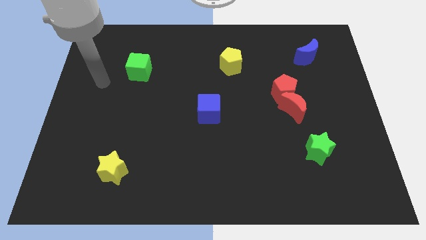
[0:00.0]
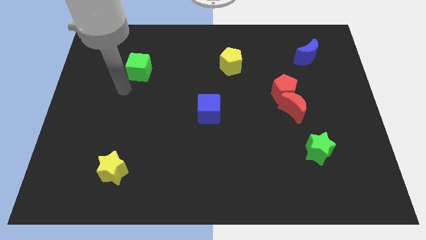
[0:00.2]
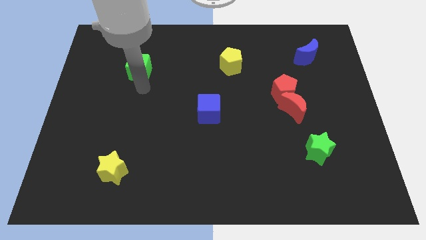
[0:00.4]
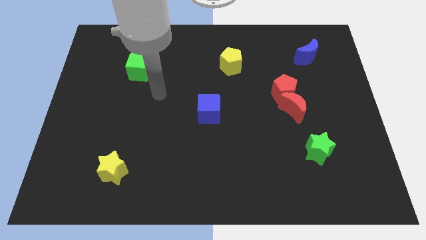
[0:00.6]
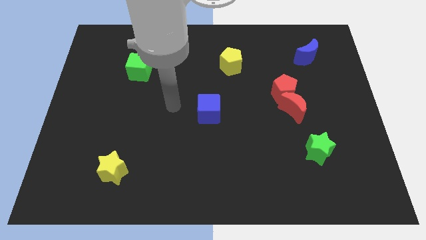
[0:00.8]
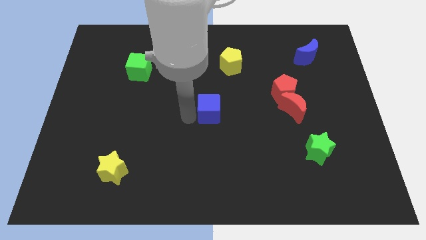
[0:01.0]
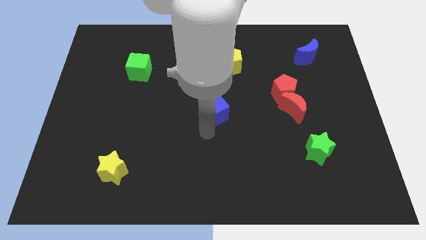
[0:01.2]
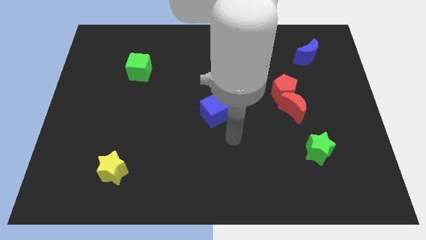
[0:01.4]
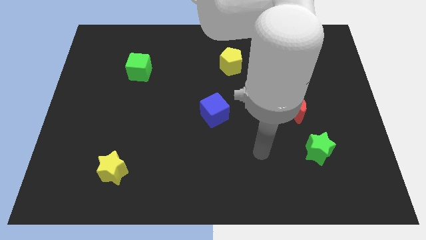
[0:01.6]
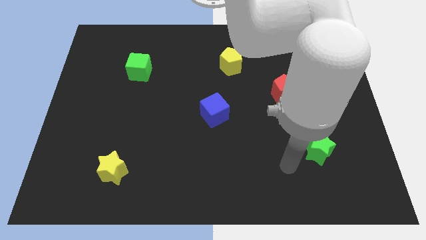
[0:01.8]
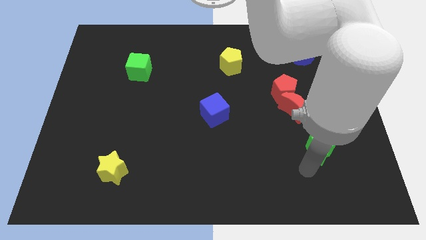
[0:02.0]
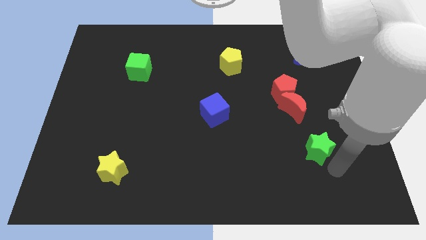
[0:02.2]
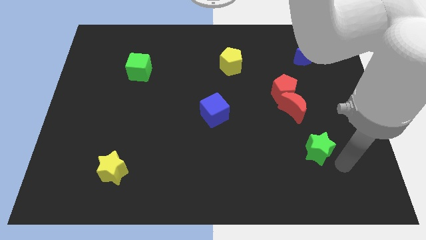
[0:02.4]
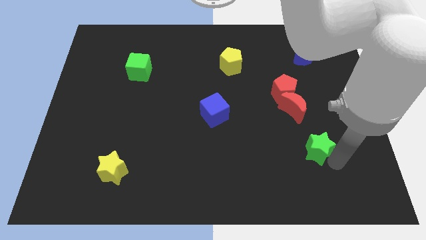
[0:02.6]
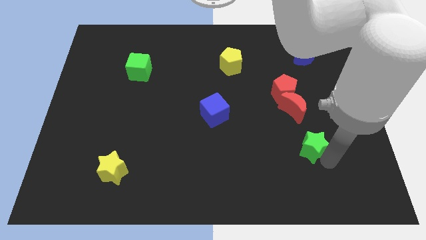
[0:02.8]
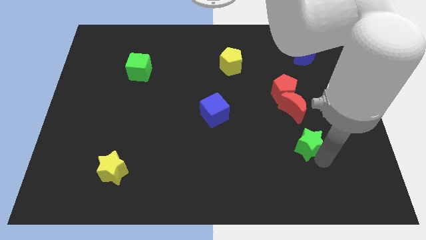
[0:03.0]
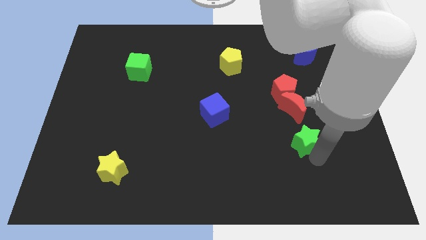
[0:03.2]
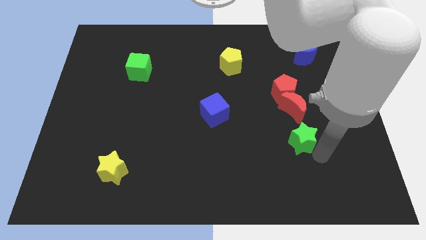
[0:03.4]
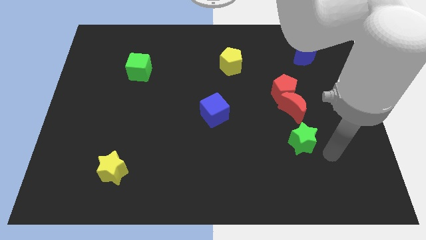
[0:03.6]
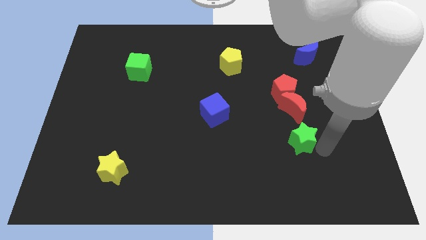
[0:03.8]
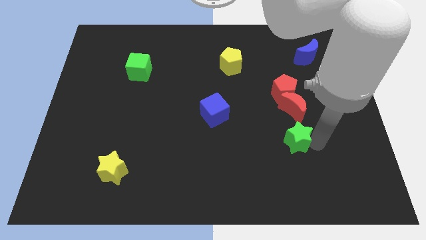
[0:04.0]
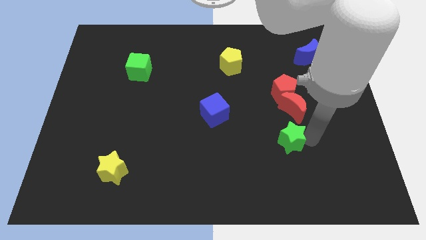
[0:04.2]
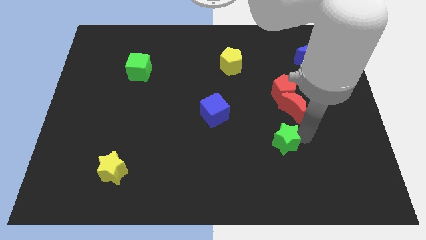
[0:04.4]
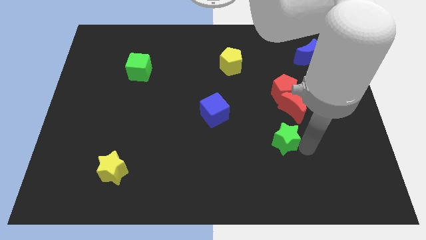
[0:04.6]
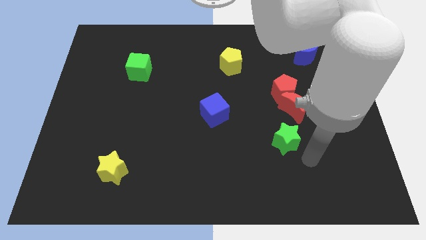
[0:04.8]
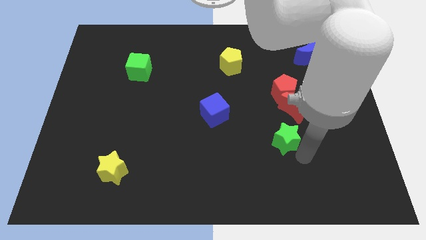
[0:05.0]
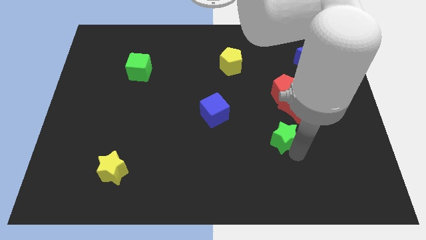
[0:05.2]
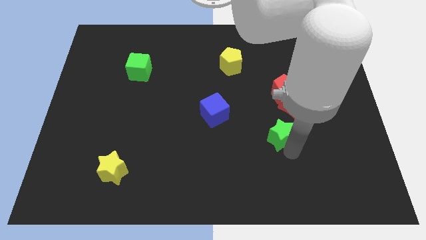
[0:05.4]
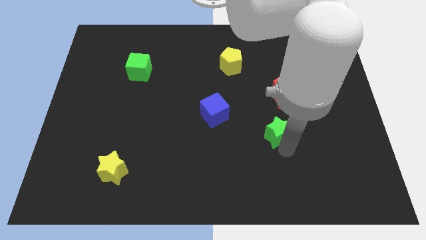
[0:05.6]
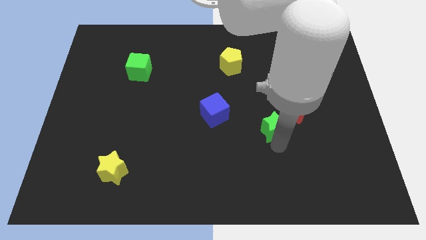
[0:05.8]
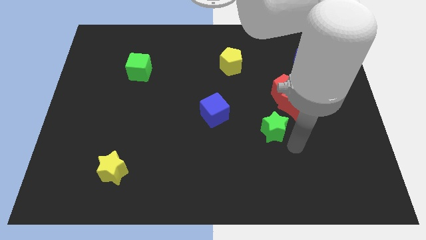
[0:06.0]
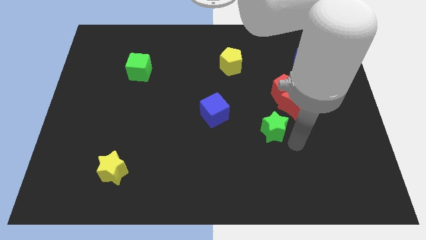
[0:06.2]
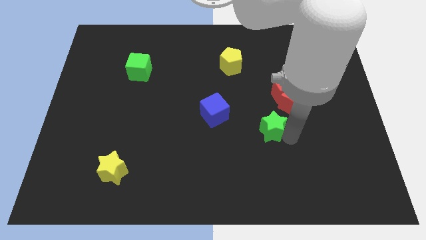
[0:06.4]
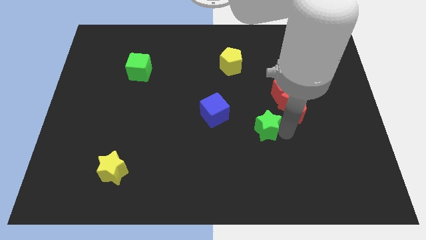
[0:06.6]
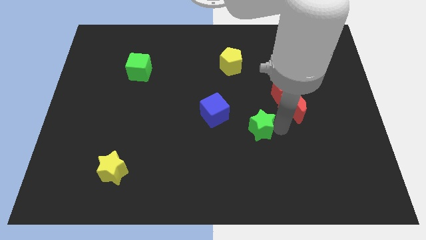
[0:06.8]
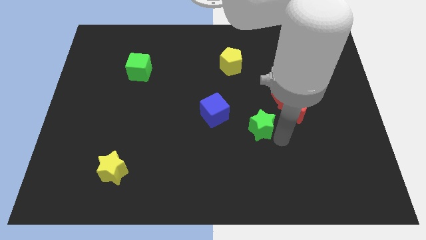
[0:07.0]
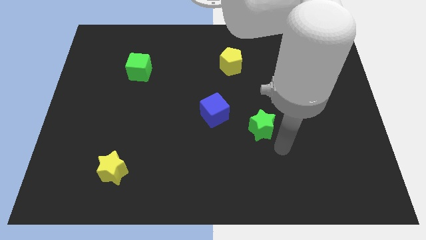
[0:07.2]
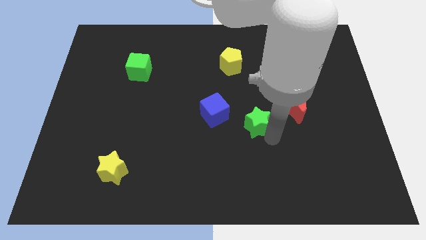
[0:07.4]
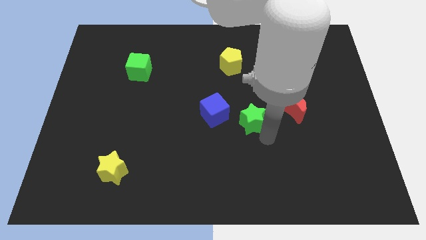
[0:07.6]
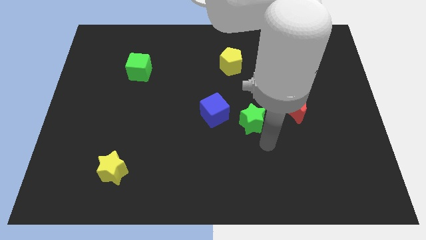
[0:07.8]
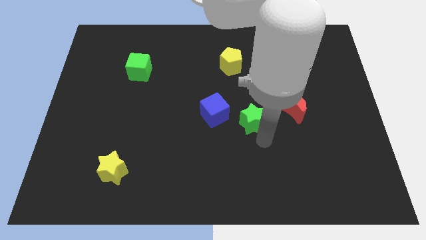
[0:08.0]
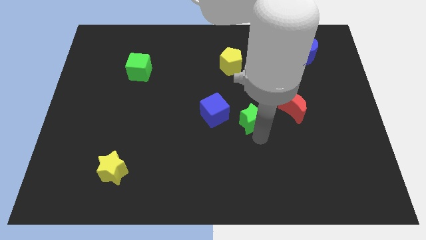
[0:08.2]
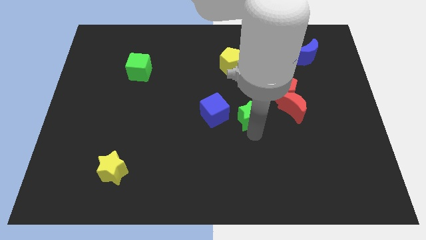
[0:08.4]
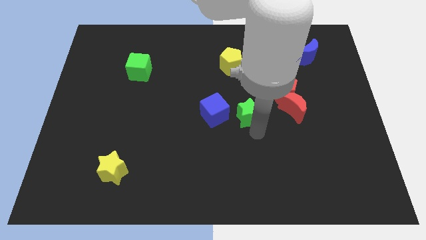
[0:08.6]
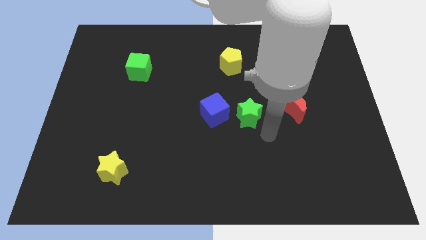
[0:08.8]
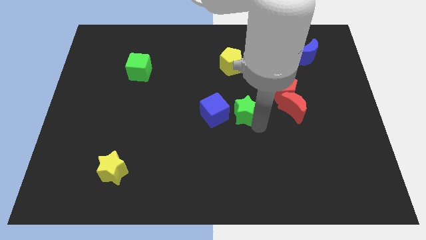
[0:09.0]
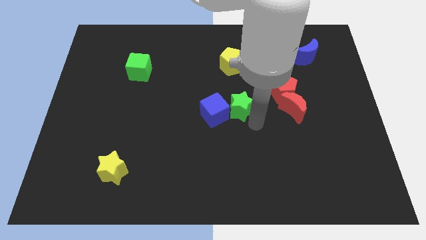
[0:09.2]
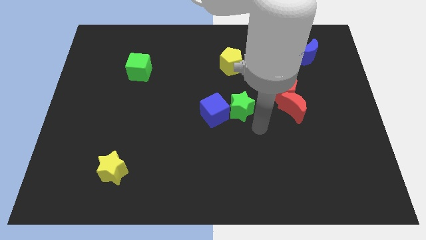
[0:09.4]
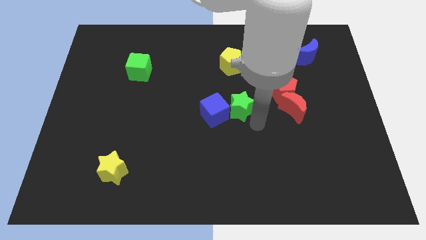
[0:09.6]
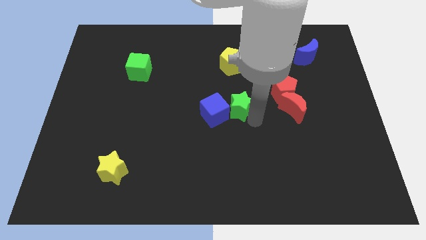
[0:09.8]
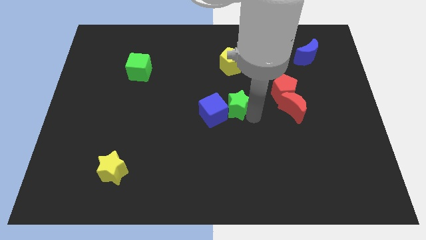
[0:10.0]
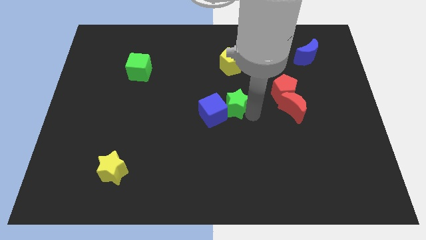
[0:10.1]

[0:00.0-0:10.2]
push the green star up and to the left diagonally

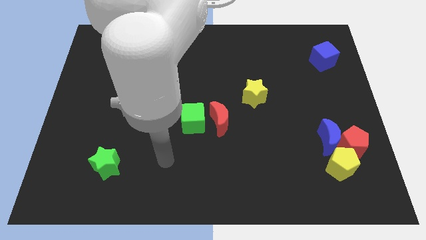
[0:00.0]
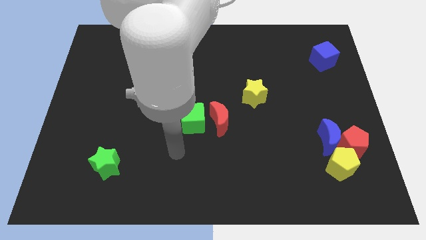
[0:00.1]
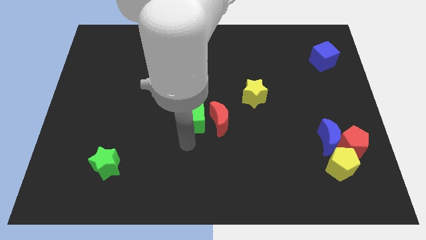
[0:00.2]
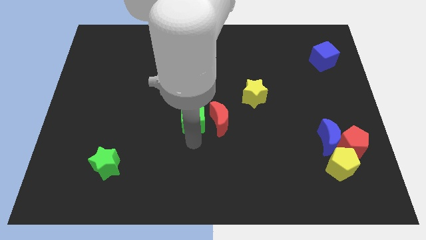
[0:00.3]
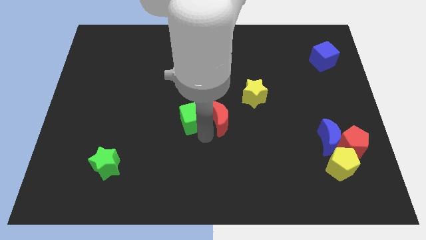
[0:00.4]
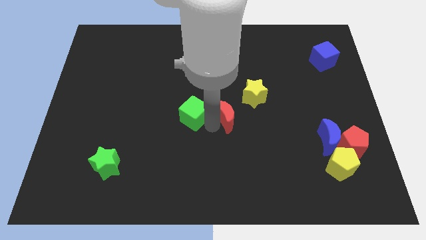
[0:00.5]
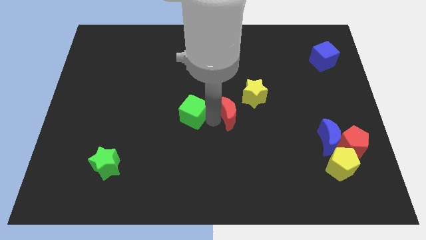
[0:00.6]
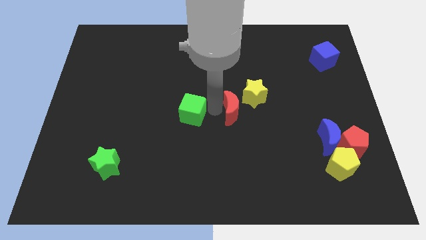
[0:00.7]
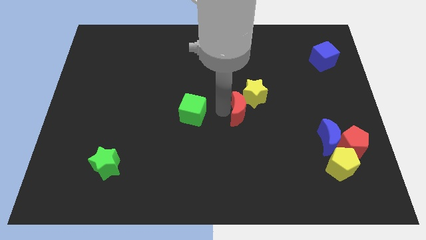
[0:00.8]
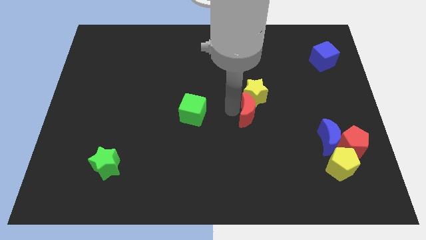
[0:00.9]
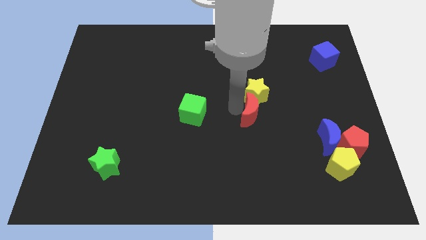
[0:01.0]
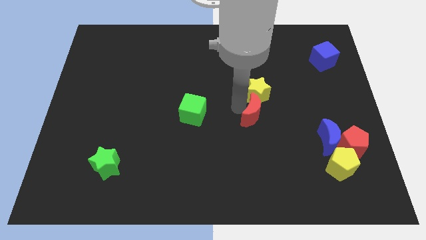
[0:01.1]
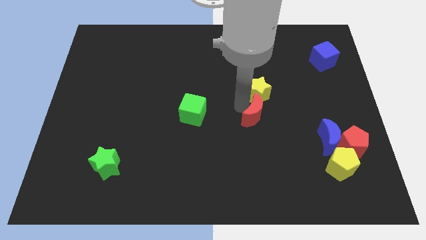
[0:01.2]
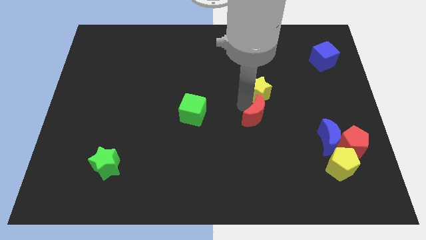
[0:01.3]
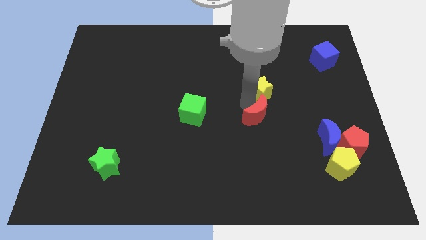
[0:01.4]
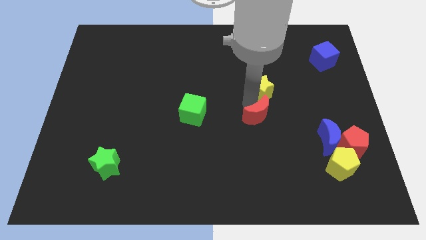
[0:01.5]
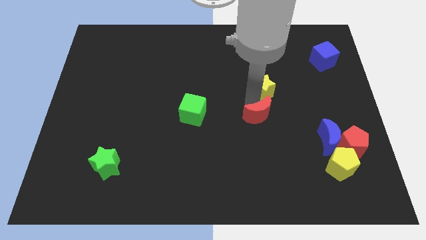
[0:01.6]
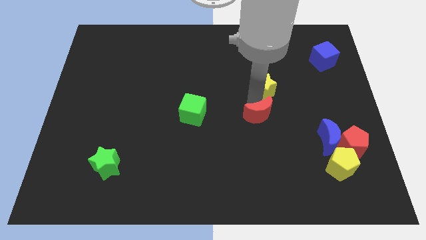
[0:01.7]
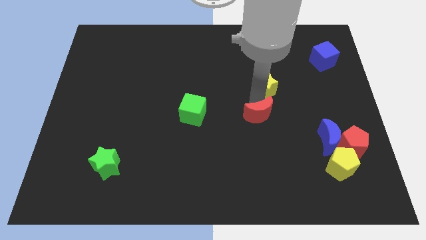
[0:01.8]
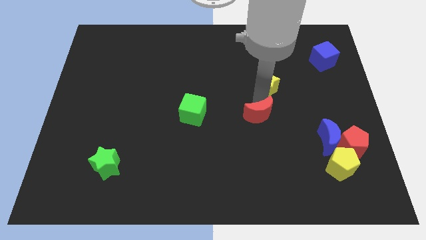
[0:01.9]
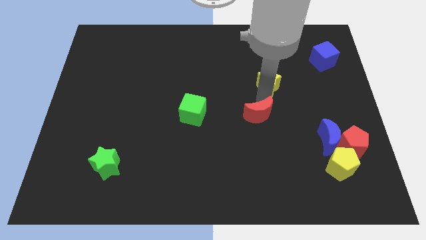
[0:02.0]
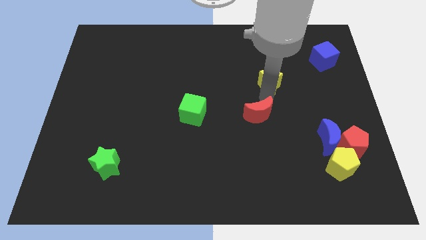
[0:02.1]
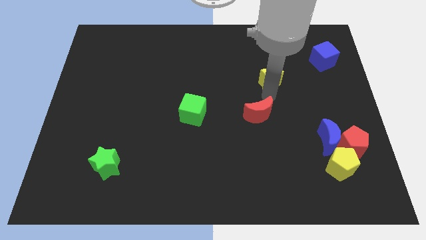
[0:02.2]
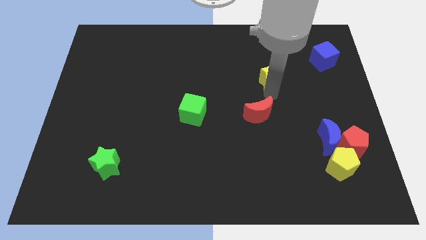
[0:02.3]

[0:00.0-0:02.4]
slide the yellow star up and then to the right slightly

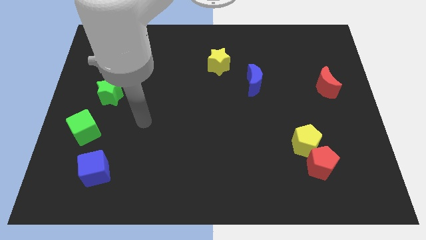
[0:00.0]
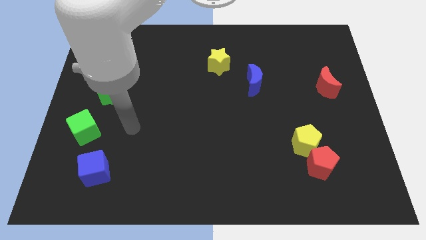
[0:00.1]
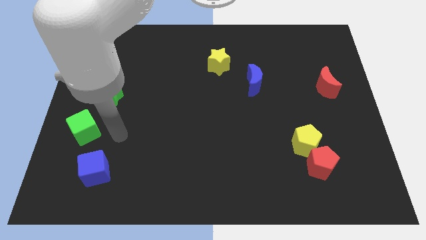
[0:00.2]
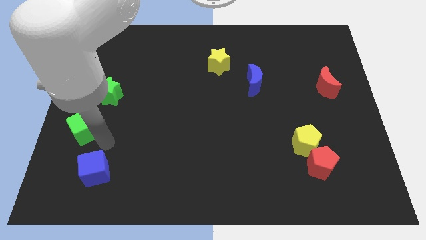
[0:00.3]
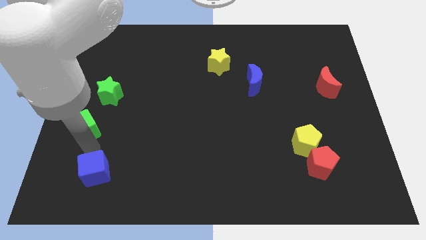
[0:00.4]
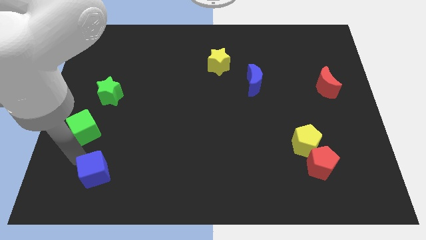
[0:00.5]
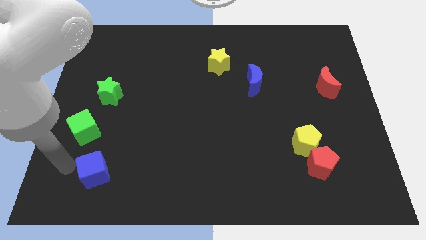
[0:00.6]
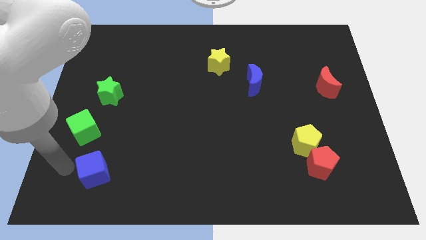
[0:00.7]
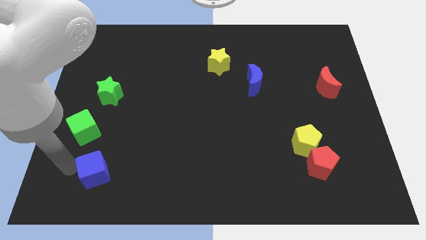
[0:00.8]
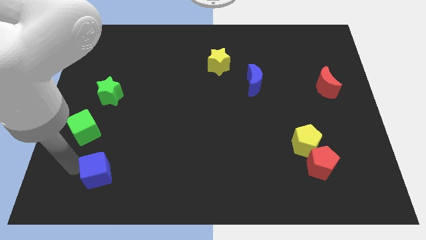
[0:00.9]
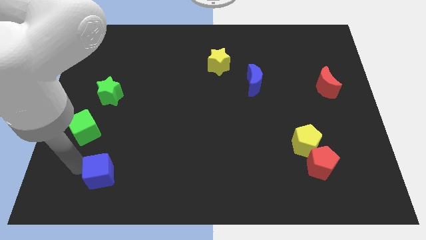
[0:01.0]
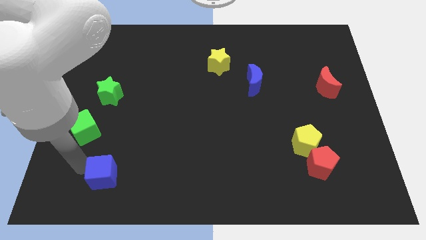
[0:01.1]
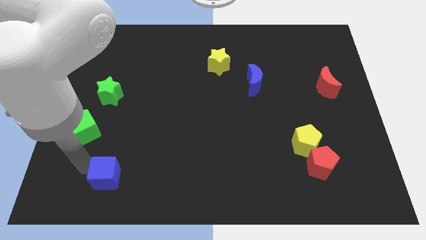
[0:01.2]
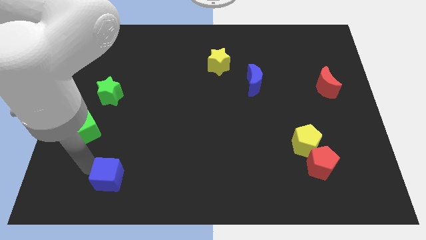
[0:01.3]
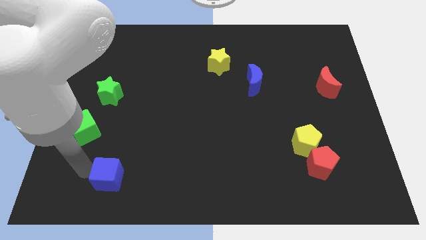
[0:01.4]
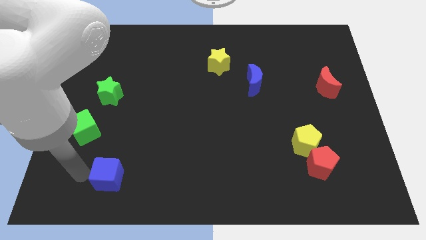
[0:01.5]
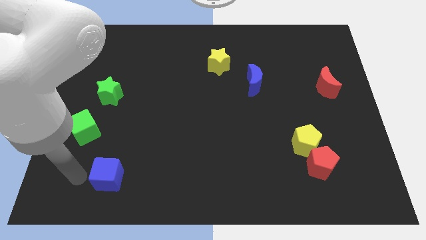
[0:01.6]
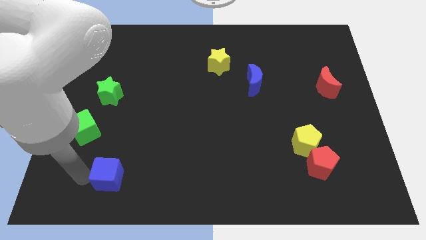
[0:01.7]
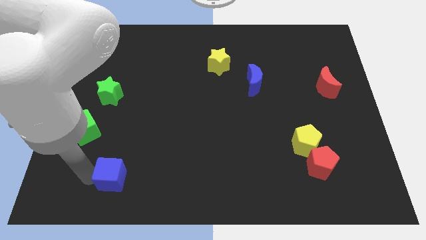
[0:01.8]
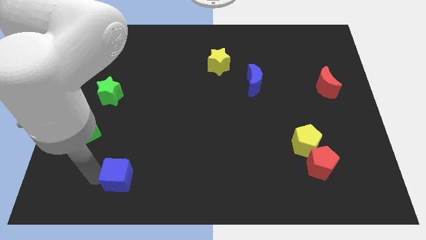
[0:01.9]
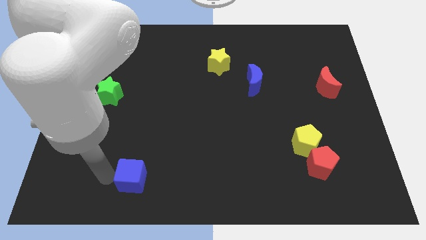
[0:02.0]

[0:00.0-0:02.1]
move the blue cube right a bit
